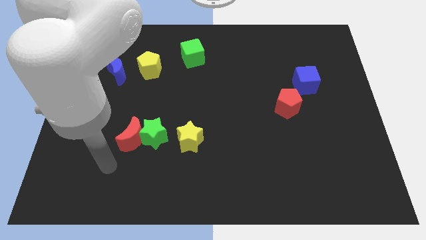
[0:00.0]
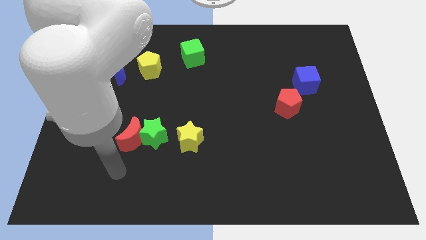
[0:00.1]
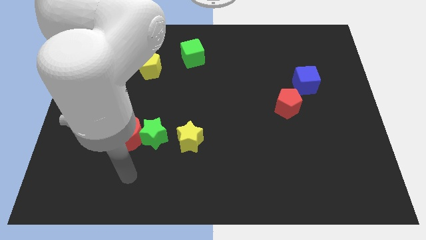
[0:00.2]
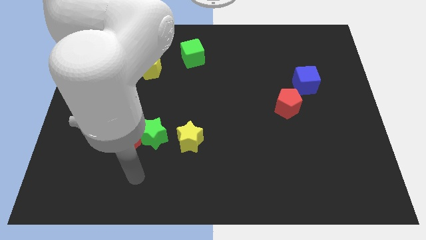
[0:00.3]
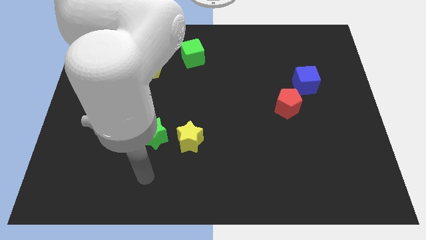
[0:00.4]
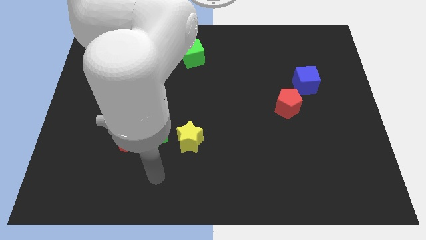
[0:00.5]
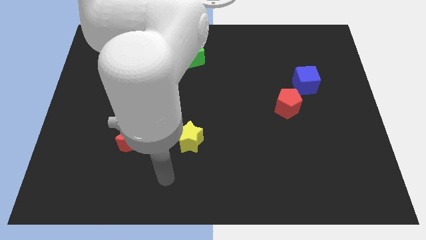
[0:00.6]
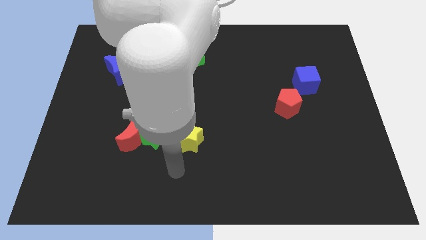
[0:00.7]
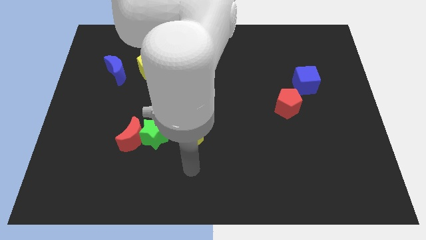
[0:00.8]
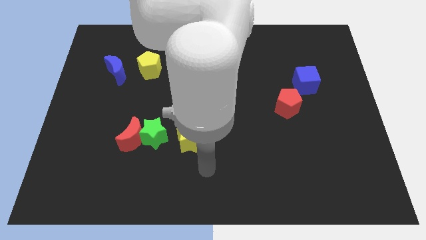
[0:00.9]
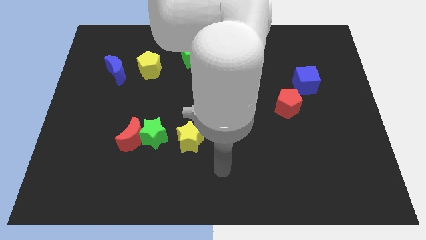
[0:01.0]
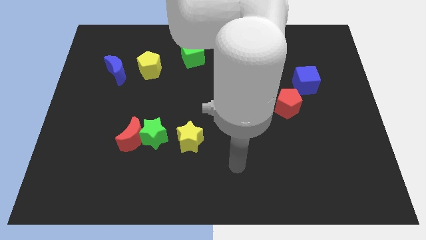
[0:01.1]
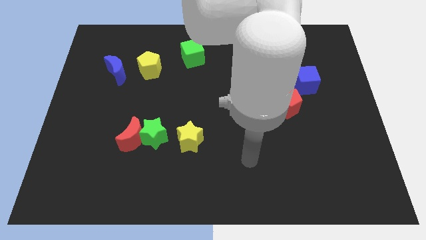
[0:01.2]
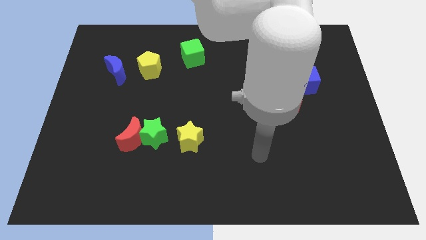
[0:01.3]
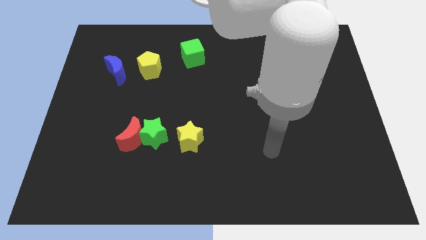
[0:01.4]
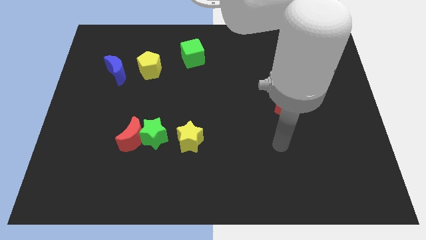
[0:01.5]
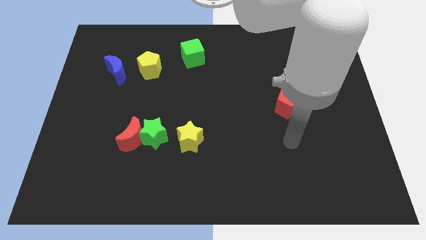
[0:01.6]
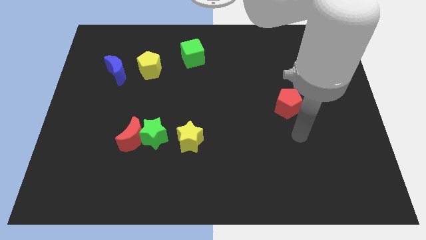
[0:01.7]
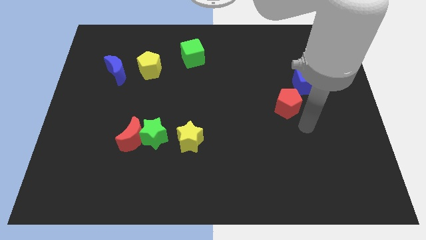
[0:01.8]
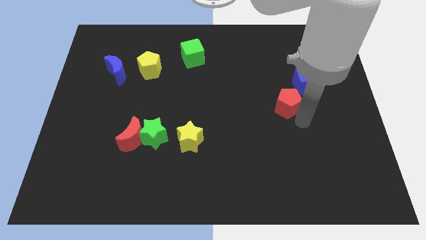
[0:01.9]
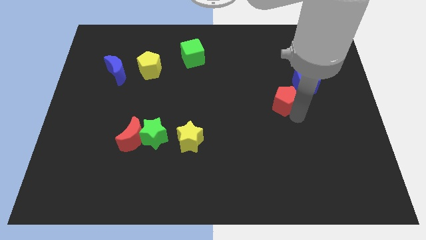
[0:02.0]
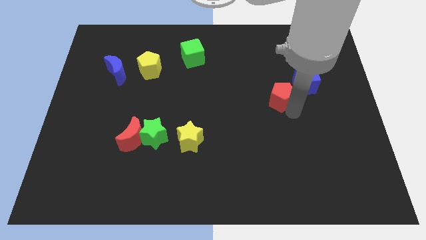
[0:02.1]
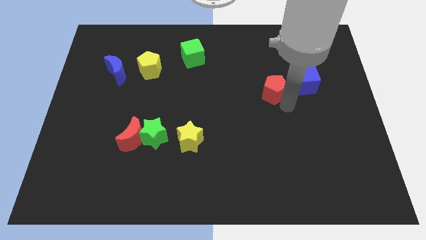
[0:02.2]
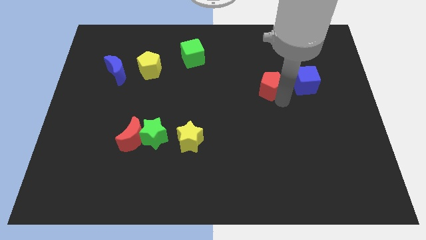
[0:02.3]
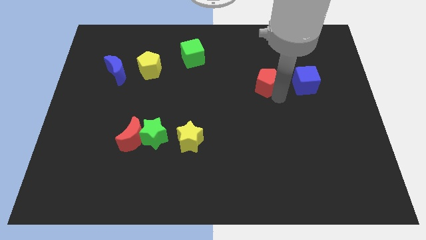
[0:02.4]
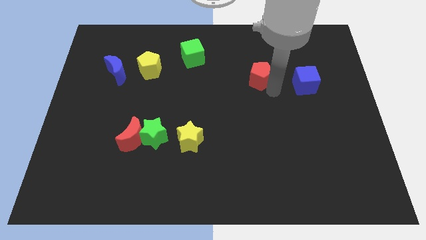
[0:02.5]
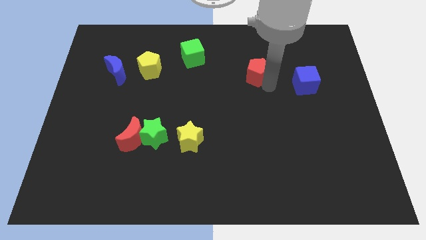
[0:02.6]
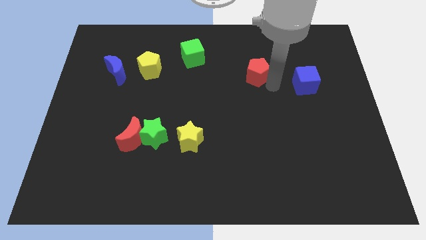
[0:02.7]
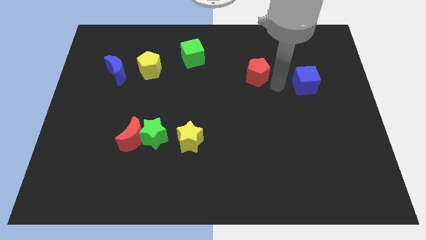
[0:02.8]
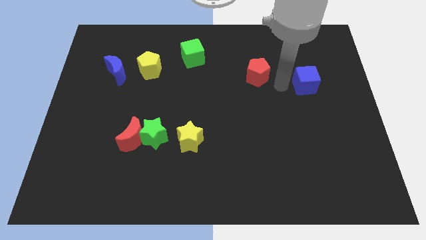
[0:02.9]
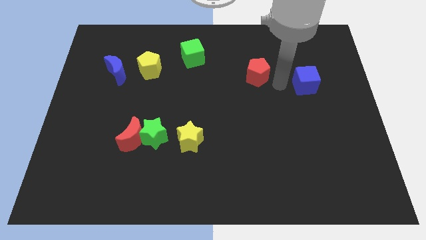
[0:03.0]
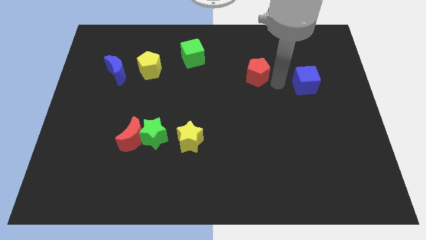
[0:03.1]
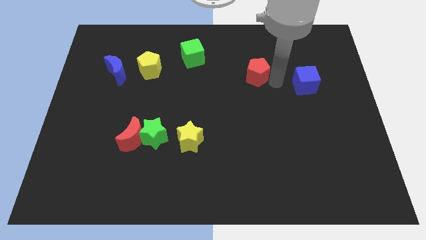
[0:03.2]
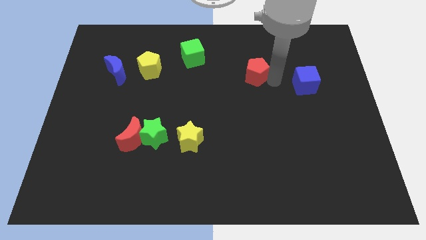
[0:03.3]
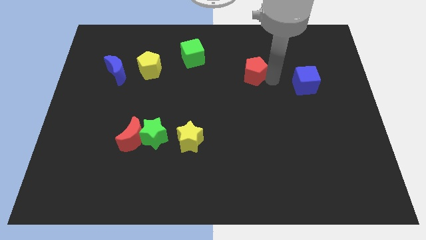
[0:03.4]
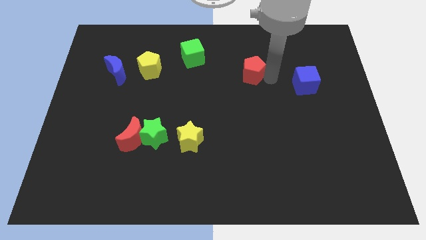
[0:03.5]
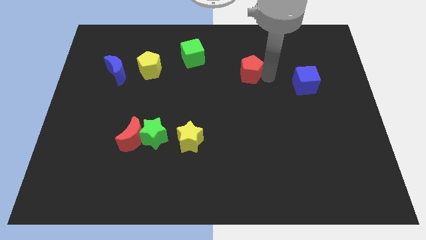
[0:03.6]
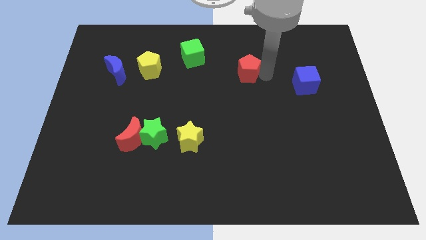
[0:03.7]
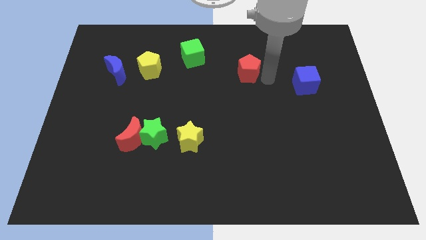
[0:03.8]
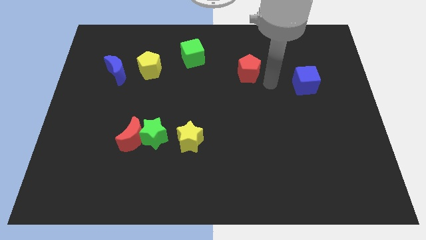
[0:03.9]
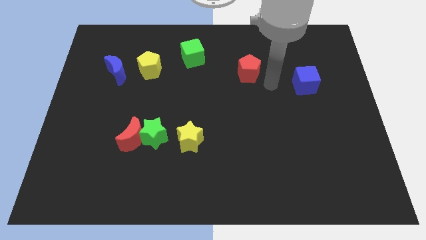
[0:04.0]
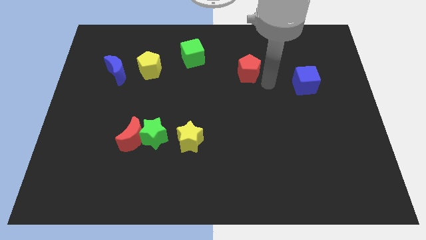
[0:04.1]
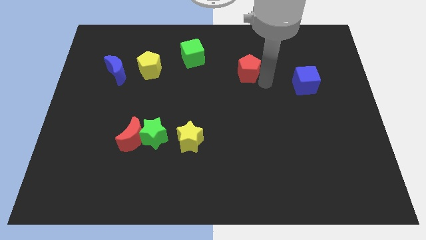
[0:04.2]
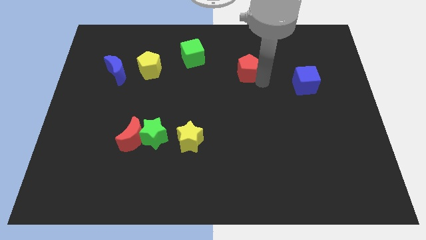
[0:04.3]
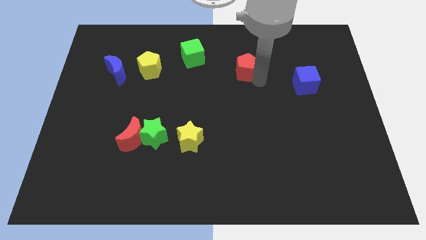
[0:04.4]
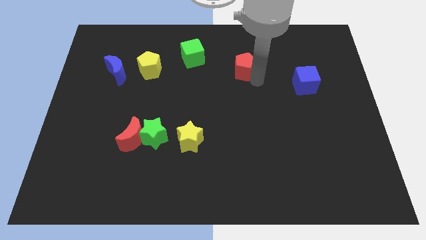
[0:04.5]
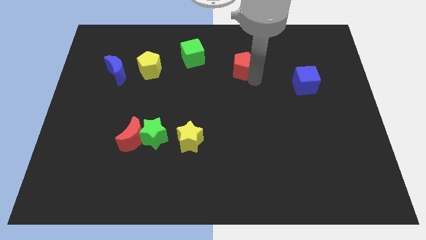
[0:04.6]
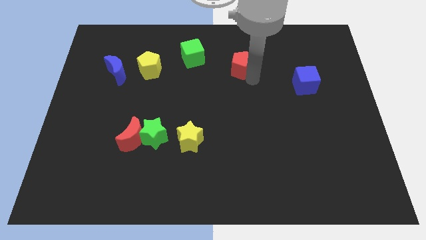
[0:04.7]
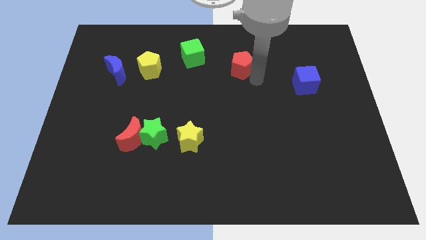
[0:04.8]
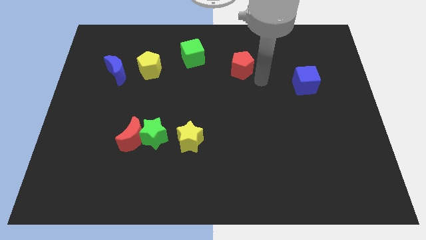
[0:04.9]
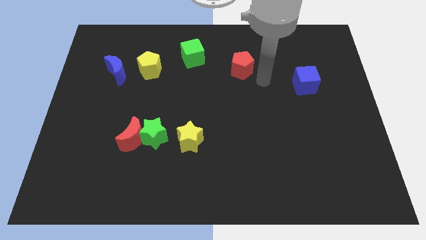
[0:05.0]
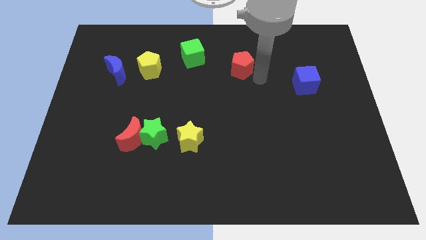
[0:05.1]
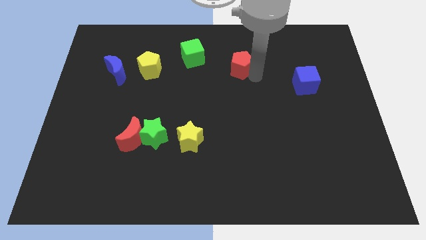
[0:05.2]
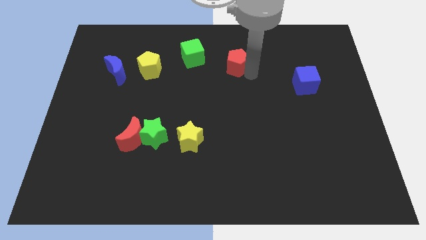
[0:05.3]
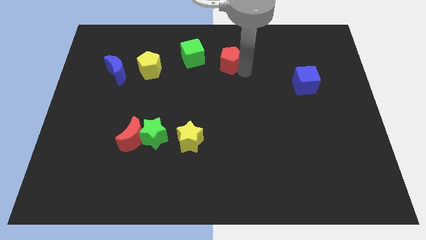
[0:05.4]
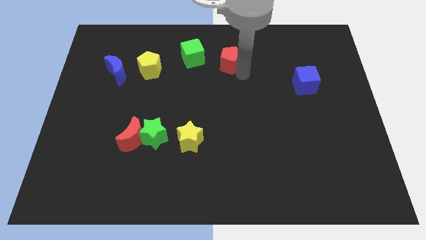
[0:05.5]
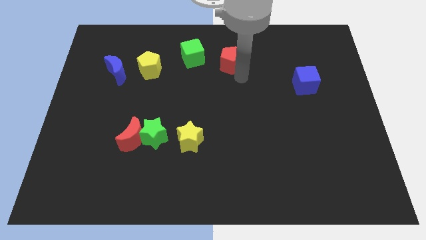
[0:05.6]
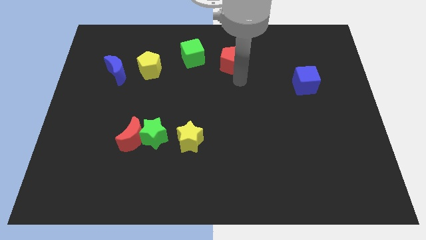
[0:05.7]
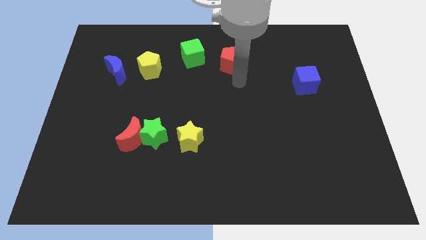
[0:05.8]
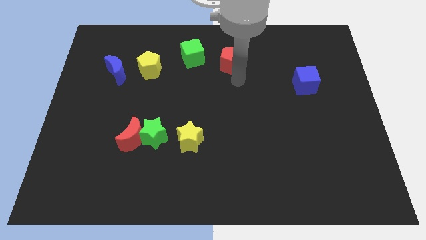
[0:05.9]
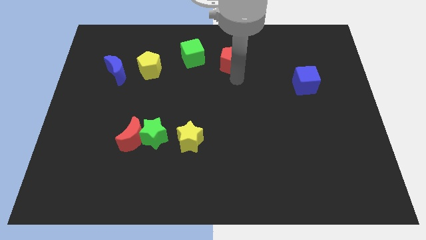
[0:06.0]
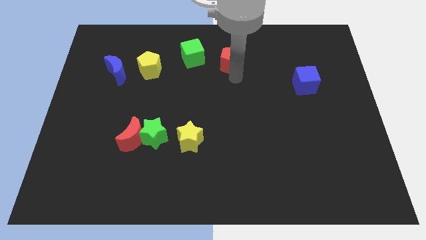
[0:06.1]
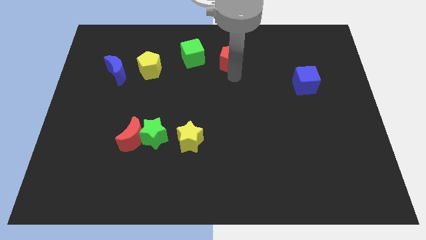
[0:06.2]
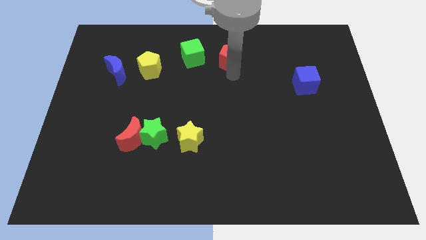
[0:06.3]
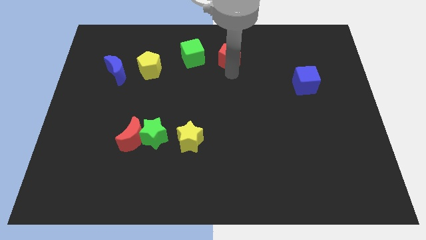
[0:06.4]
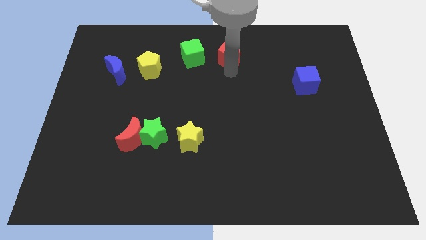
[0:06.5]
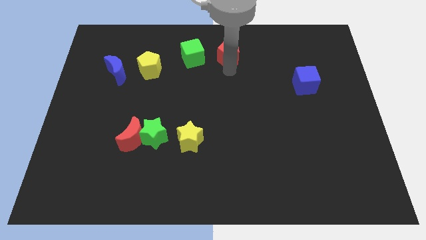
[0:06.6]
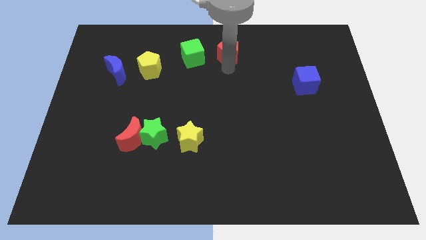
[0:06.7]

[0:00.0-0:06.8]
put the red pentagon to the top
